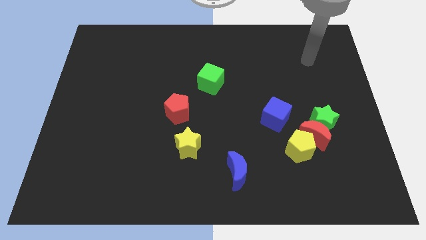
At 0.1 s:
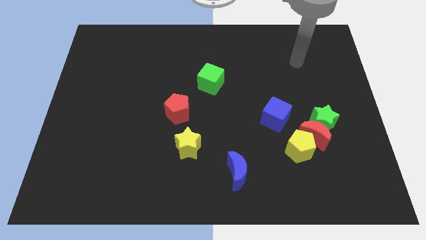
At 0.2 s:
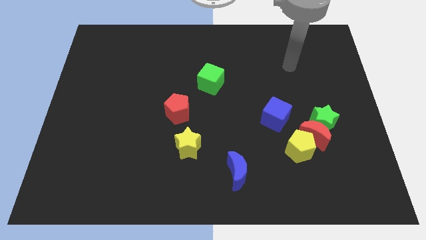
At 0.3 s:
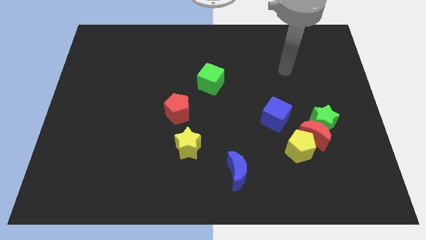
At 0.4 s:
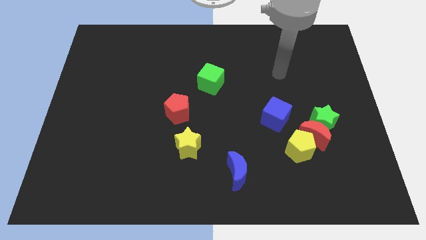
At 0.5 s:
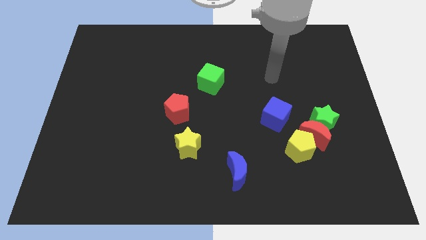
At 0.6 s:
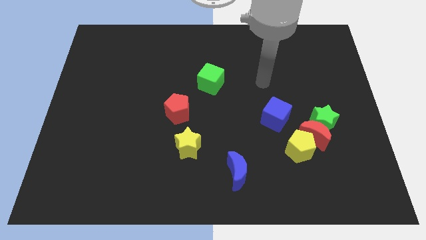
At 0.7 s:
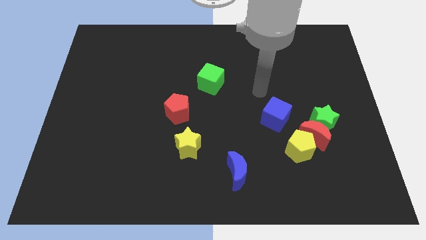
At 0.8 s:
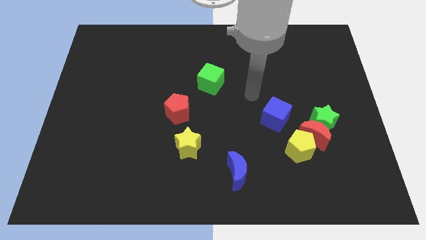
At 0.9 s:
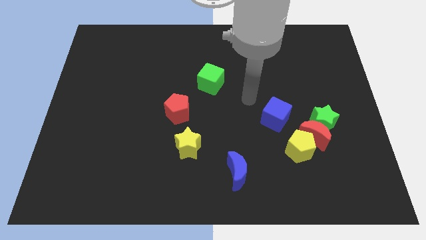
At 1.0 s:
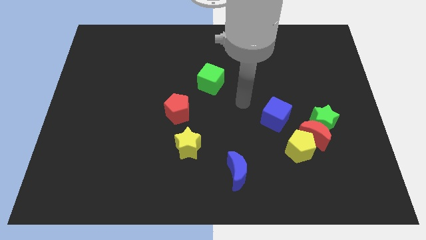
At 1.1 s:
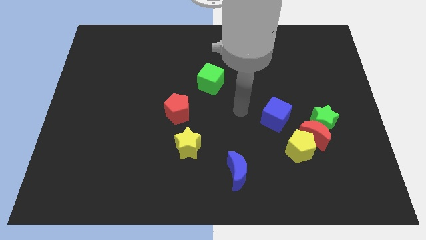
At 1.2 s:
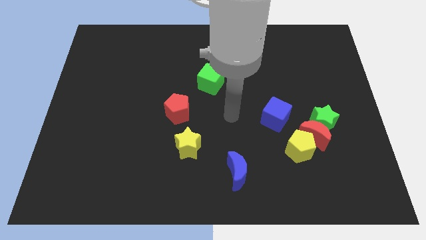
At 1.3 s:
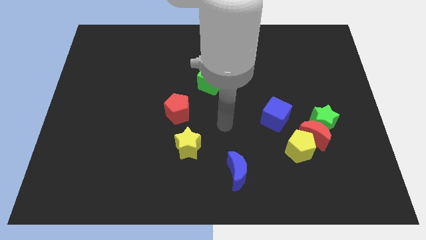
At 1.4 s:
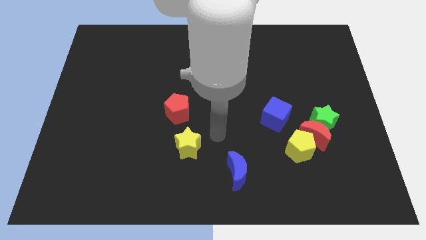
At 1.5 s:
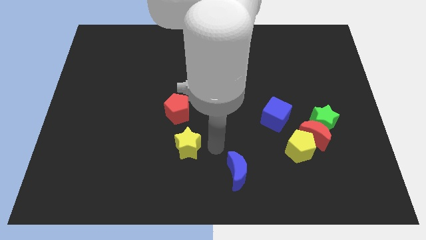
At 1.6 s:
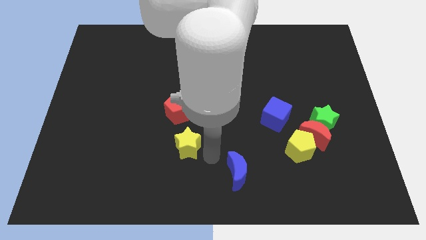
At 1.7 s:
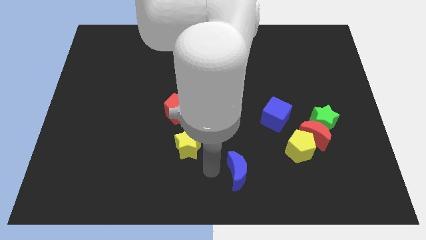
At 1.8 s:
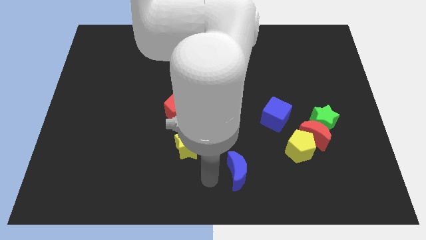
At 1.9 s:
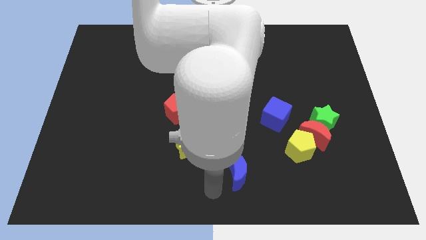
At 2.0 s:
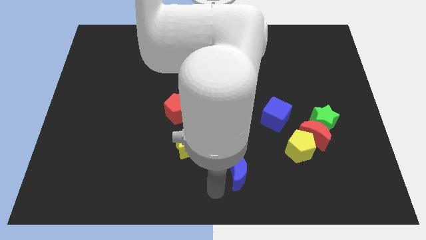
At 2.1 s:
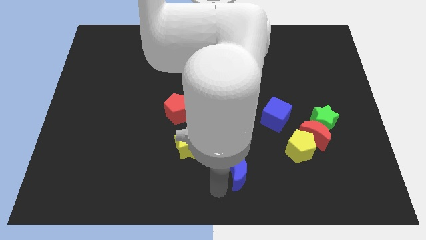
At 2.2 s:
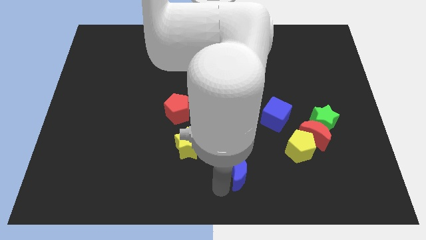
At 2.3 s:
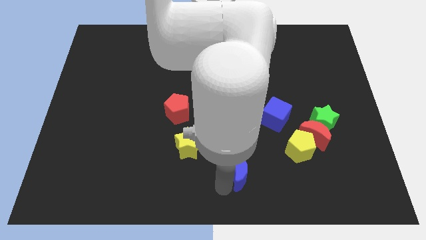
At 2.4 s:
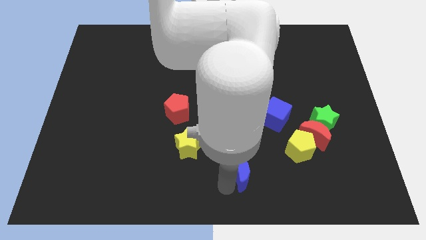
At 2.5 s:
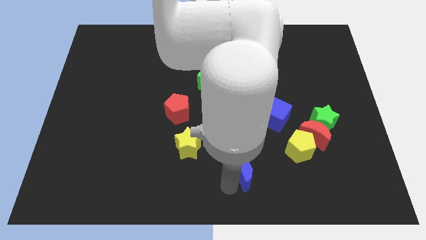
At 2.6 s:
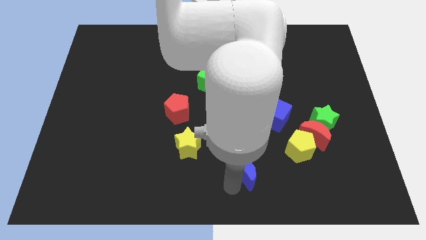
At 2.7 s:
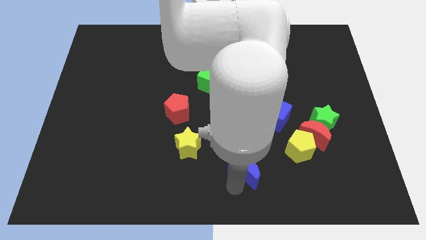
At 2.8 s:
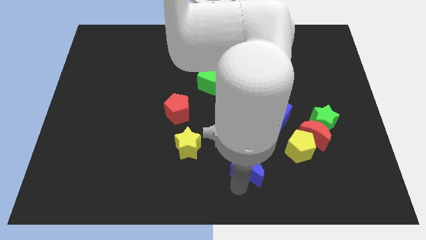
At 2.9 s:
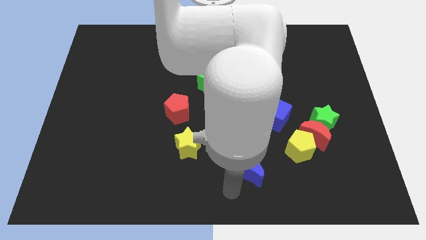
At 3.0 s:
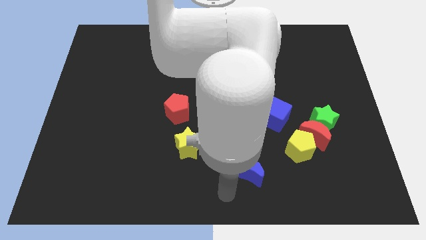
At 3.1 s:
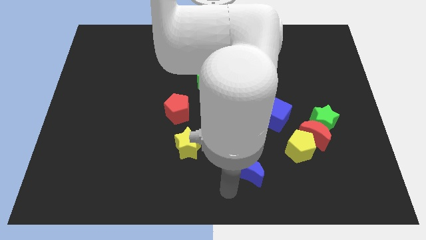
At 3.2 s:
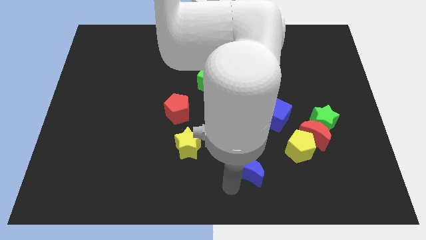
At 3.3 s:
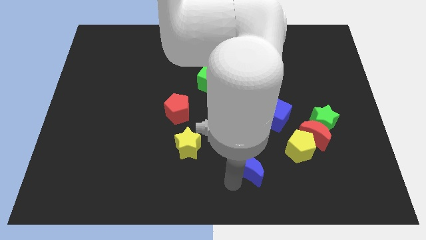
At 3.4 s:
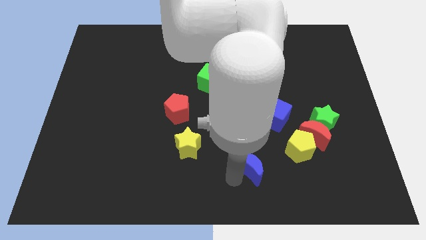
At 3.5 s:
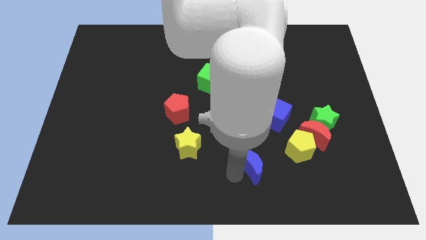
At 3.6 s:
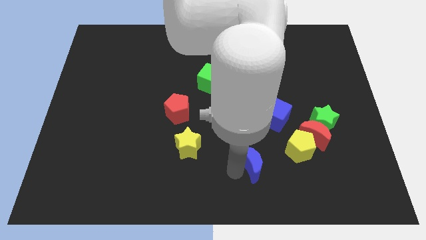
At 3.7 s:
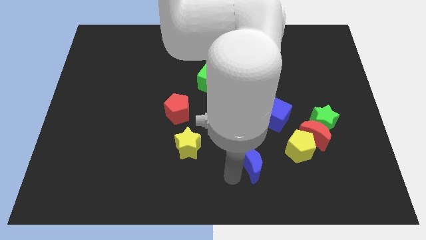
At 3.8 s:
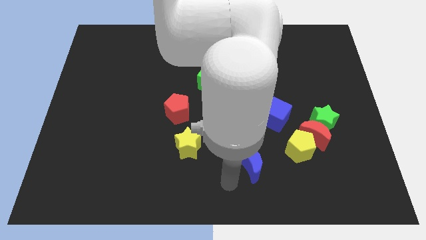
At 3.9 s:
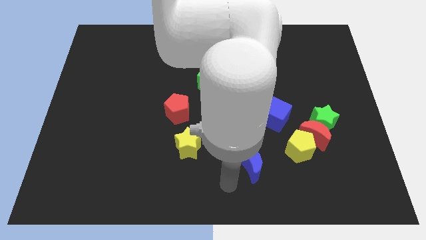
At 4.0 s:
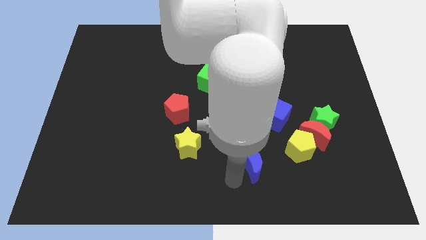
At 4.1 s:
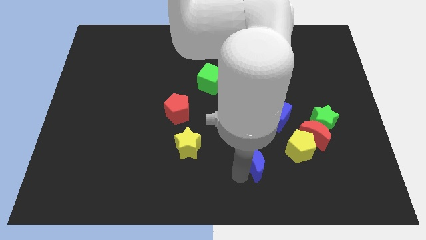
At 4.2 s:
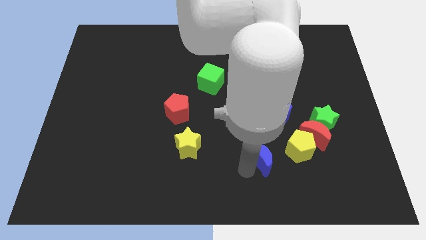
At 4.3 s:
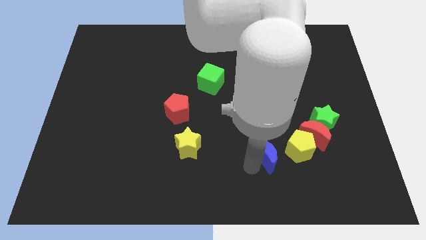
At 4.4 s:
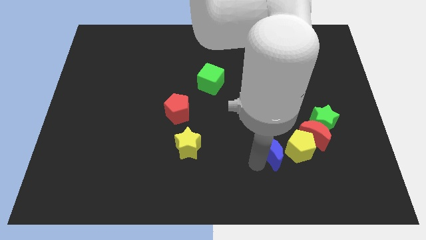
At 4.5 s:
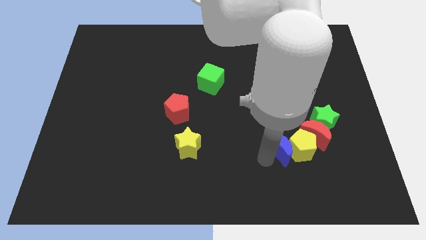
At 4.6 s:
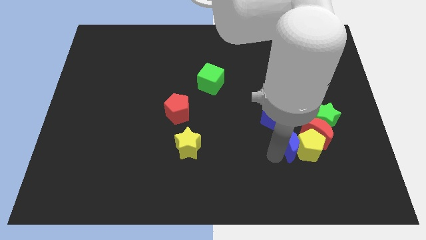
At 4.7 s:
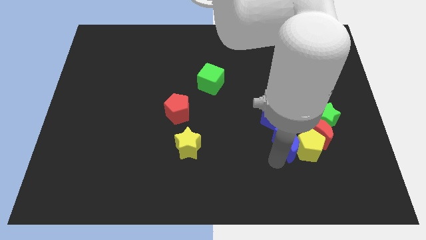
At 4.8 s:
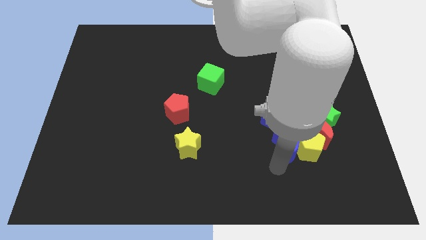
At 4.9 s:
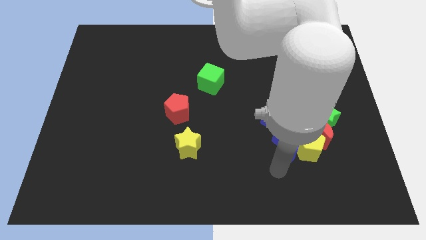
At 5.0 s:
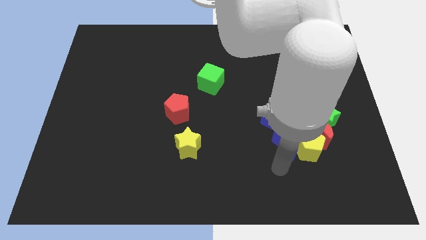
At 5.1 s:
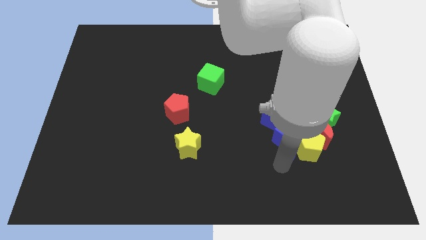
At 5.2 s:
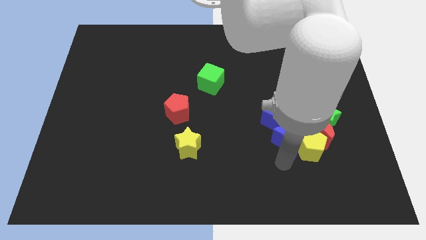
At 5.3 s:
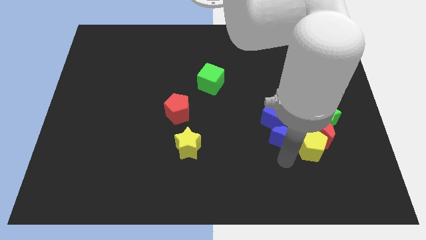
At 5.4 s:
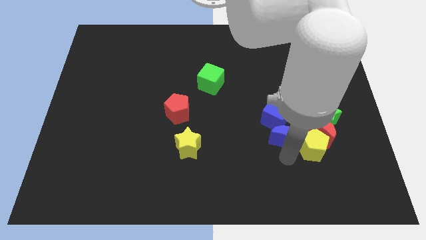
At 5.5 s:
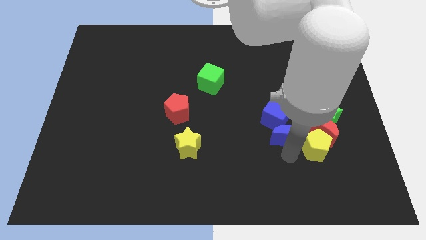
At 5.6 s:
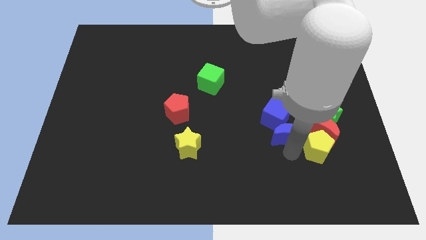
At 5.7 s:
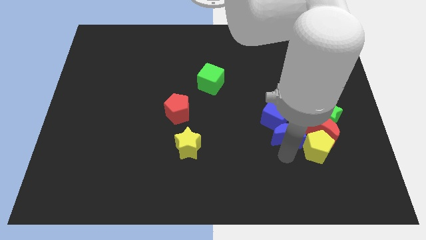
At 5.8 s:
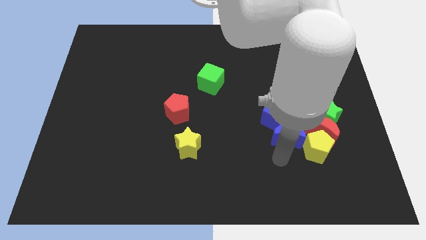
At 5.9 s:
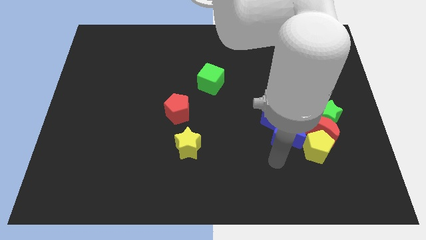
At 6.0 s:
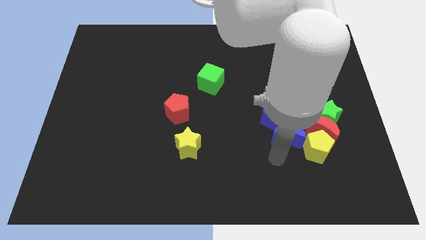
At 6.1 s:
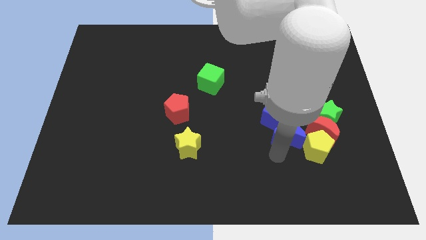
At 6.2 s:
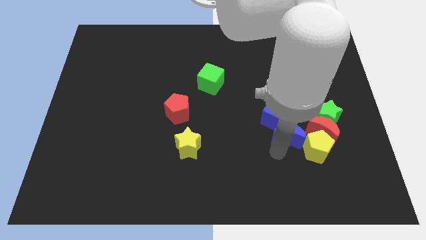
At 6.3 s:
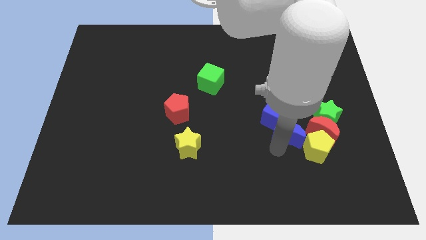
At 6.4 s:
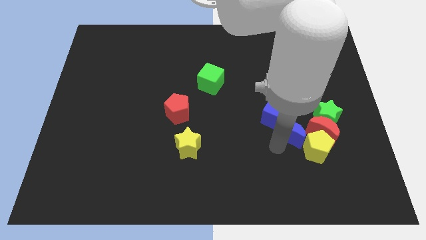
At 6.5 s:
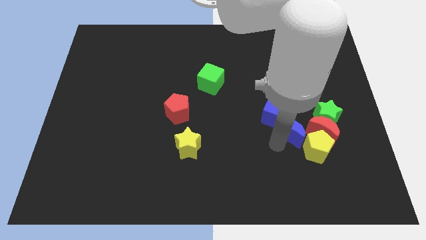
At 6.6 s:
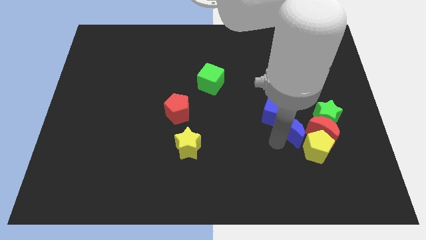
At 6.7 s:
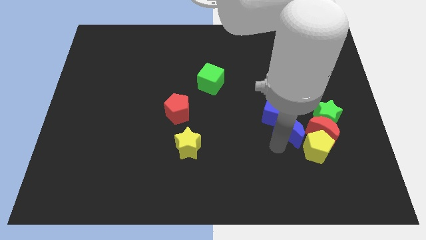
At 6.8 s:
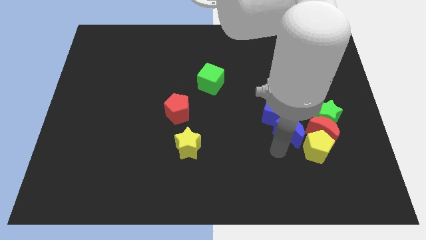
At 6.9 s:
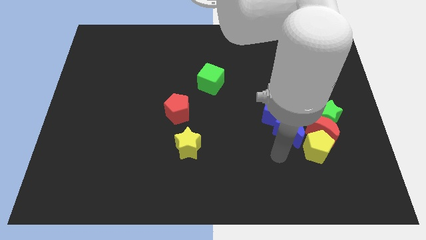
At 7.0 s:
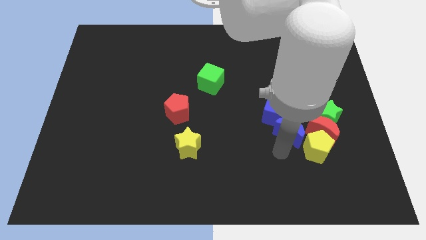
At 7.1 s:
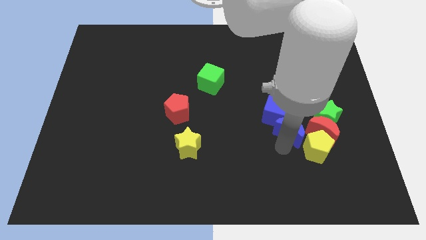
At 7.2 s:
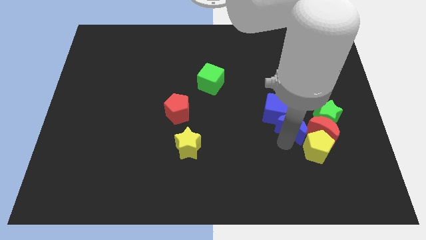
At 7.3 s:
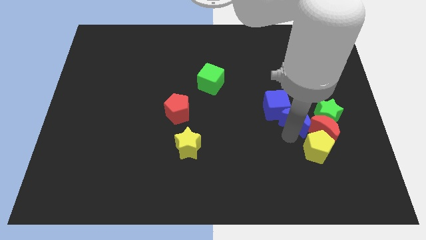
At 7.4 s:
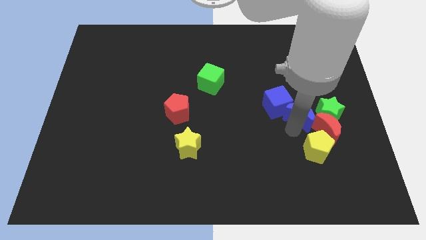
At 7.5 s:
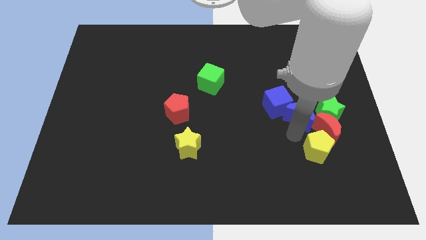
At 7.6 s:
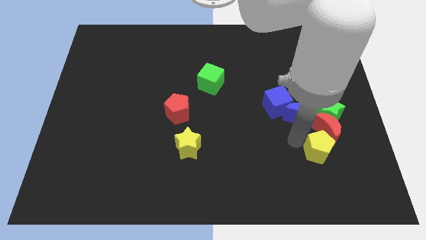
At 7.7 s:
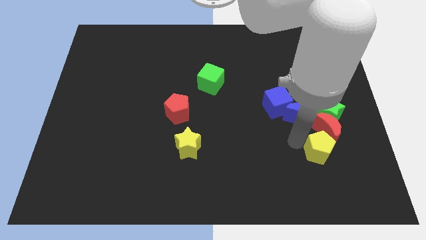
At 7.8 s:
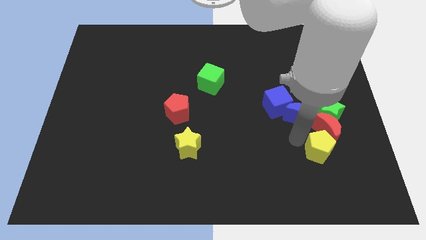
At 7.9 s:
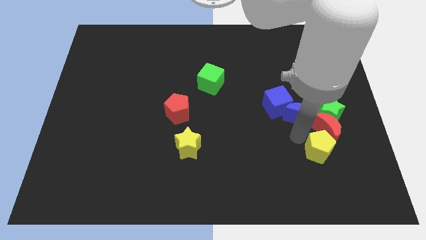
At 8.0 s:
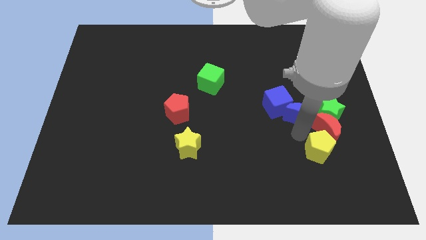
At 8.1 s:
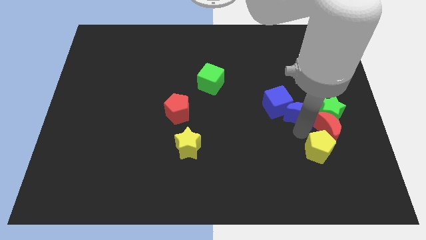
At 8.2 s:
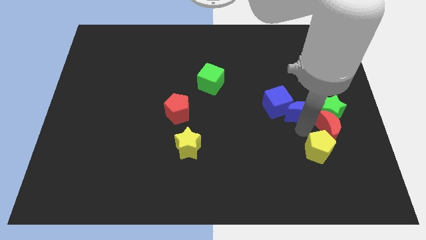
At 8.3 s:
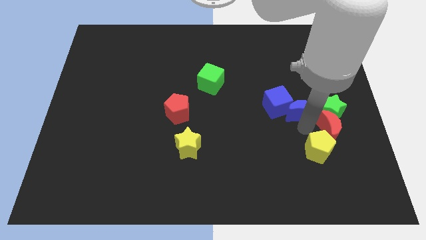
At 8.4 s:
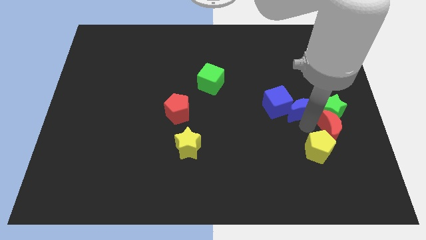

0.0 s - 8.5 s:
put the blue moon diagonally up and to the left of the green star
